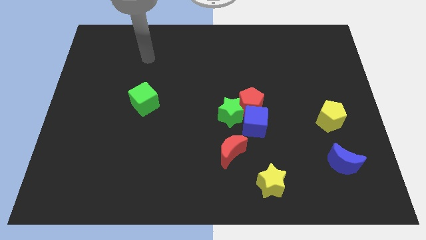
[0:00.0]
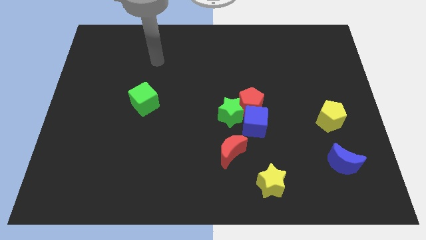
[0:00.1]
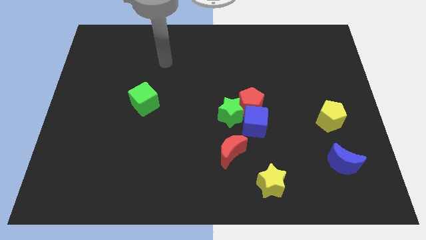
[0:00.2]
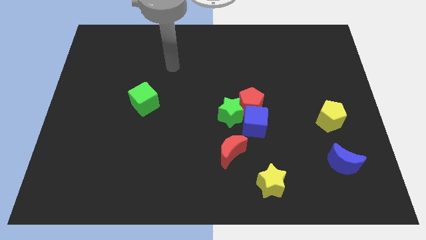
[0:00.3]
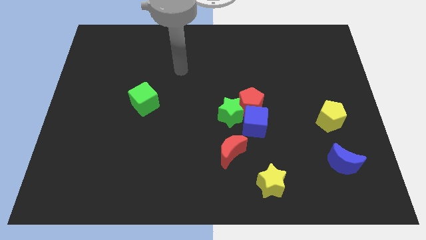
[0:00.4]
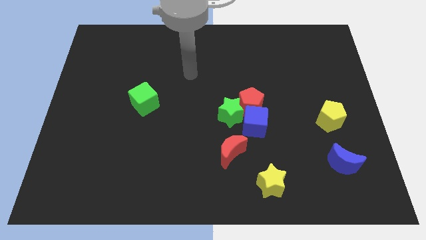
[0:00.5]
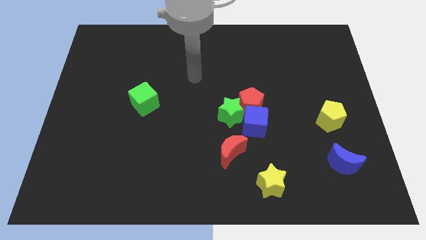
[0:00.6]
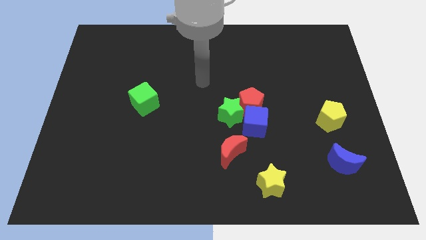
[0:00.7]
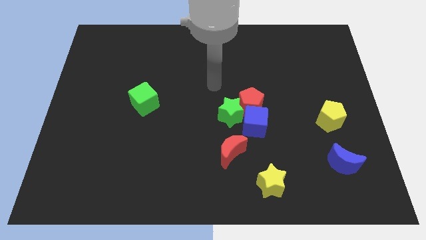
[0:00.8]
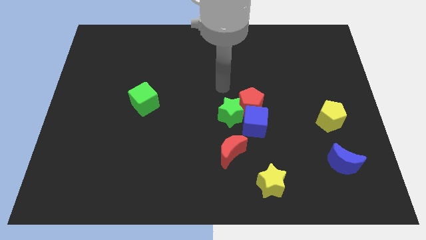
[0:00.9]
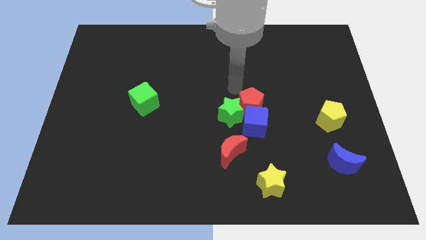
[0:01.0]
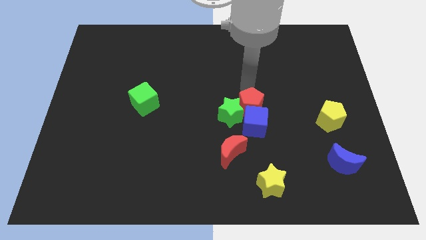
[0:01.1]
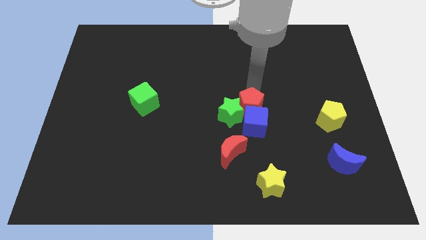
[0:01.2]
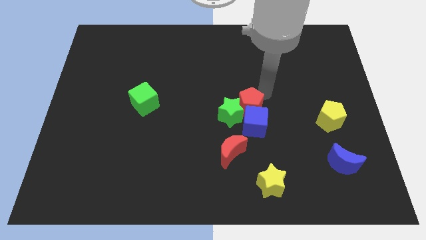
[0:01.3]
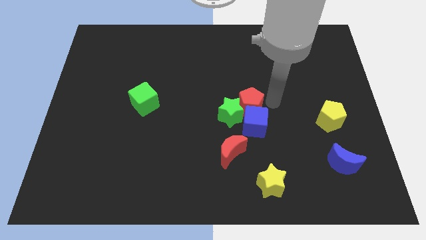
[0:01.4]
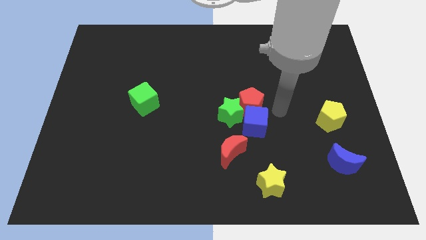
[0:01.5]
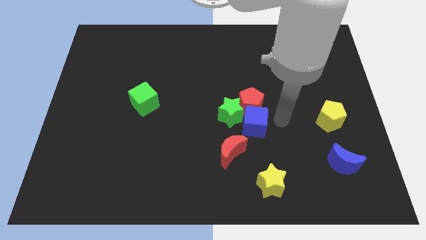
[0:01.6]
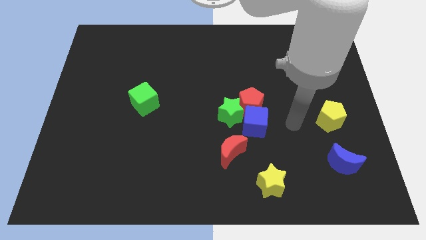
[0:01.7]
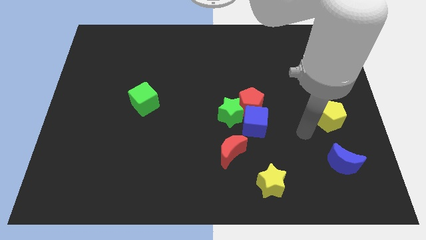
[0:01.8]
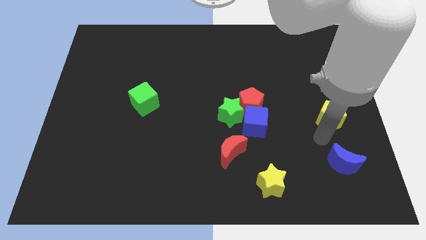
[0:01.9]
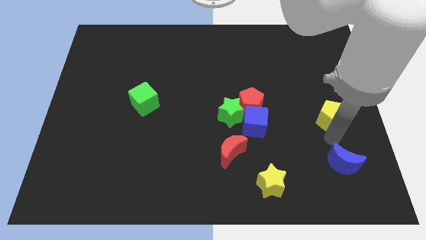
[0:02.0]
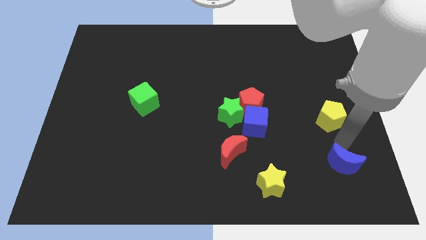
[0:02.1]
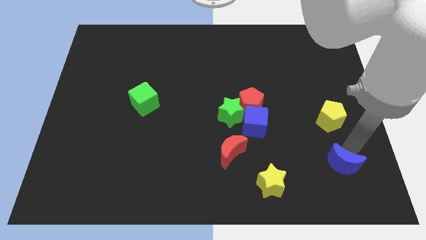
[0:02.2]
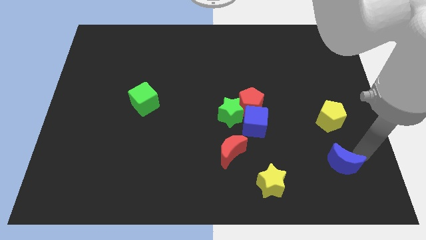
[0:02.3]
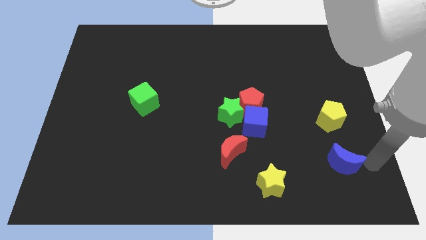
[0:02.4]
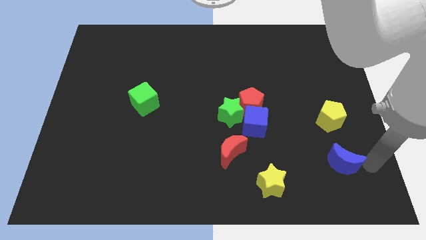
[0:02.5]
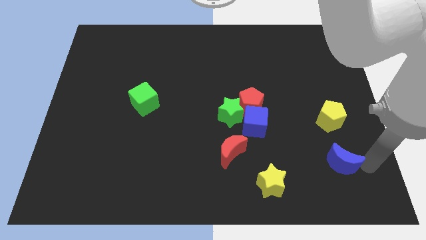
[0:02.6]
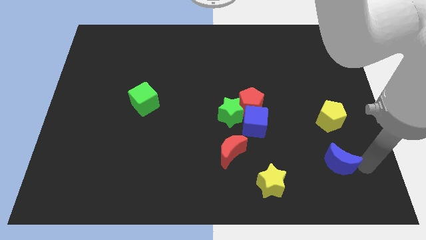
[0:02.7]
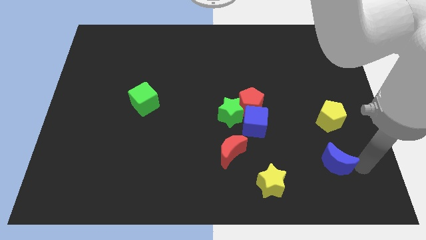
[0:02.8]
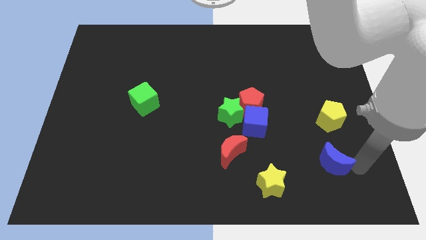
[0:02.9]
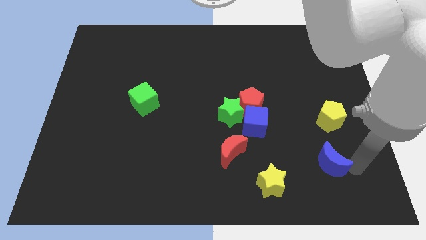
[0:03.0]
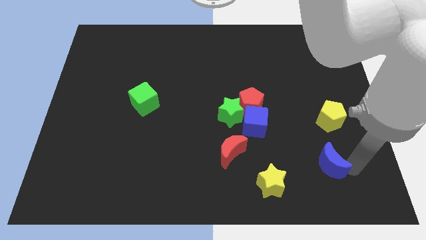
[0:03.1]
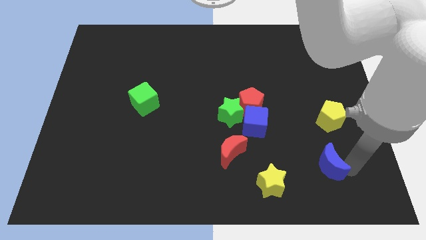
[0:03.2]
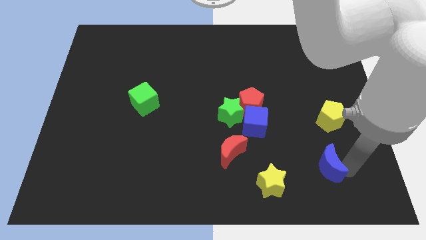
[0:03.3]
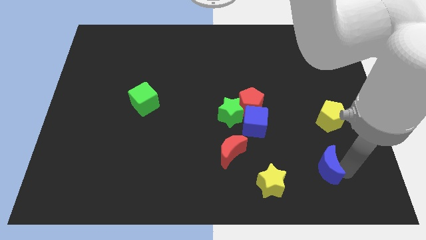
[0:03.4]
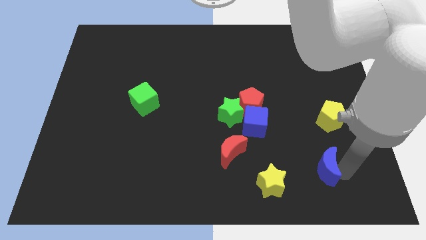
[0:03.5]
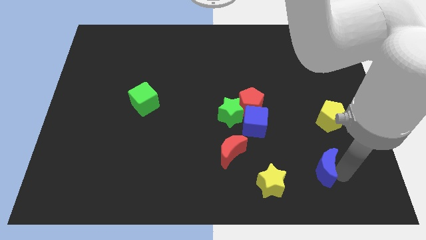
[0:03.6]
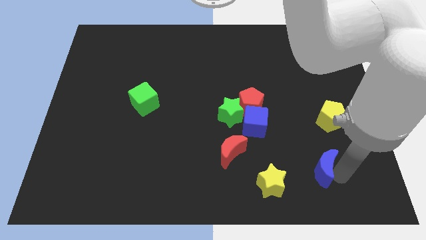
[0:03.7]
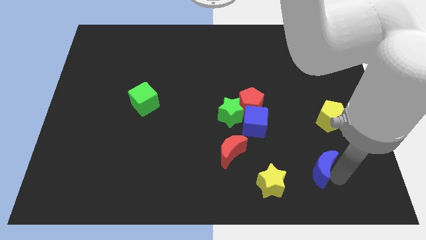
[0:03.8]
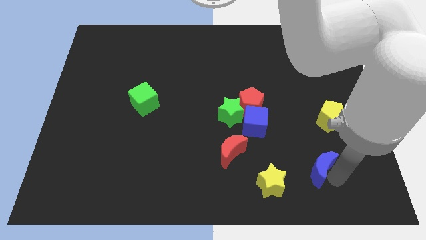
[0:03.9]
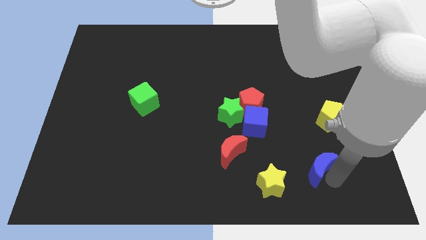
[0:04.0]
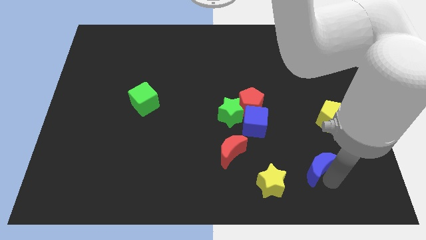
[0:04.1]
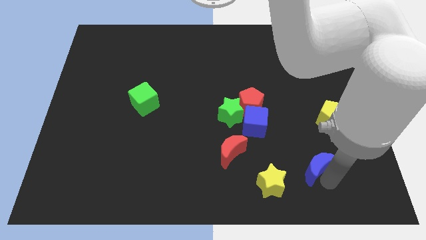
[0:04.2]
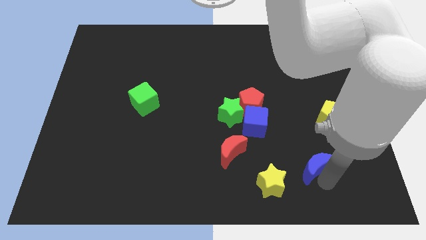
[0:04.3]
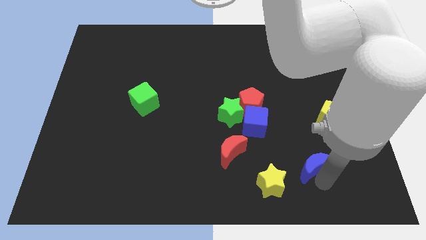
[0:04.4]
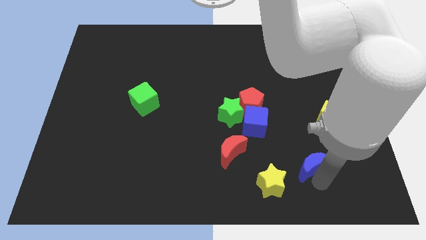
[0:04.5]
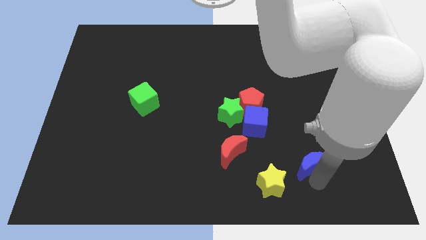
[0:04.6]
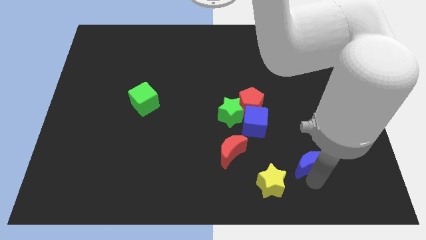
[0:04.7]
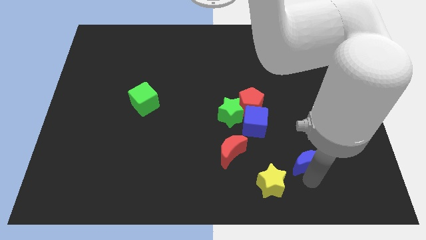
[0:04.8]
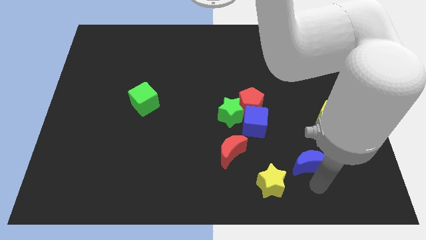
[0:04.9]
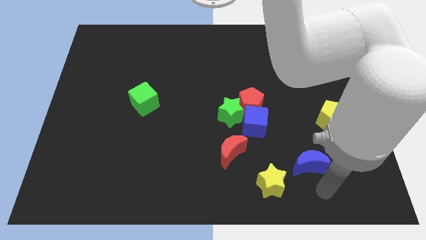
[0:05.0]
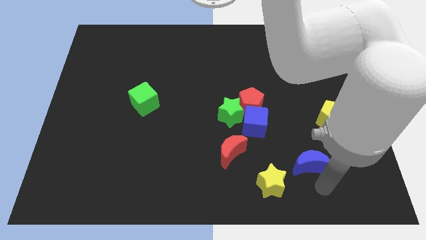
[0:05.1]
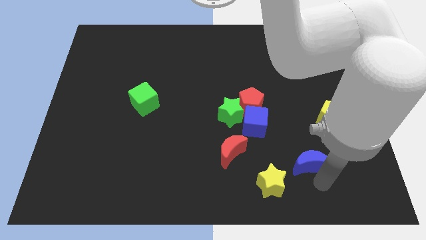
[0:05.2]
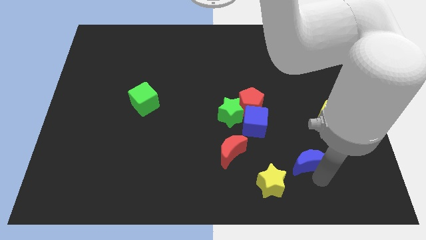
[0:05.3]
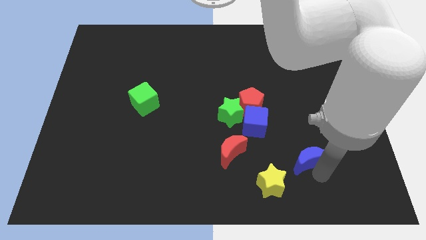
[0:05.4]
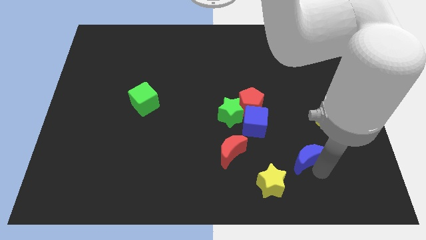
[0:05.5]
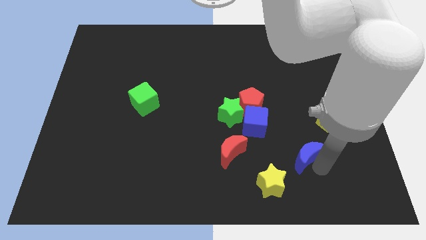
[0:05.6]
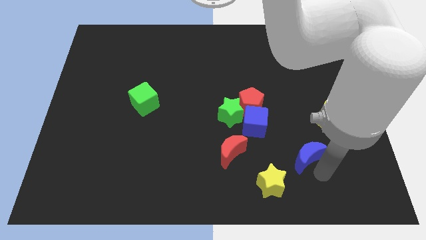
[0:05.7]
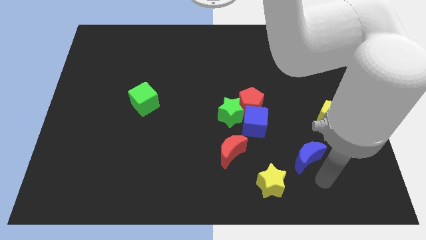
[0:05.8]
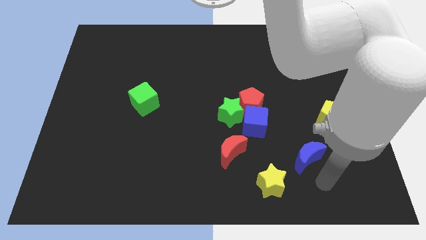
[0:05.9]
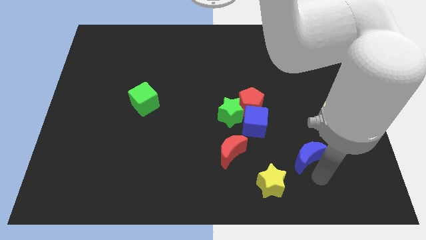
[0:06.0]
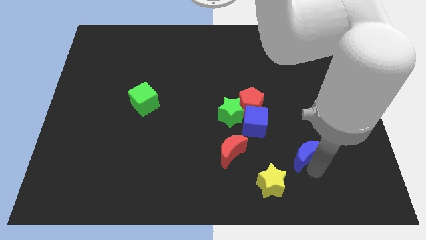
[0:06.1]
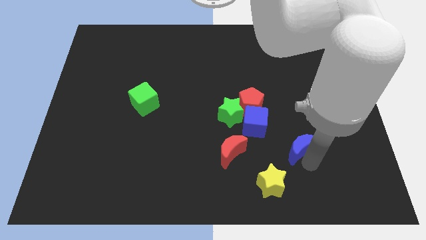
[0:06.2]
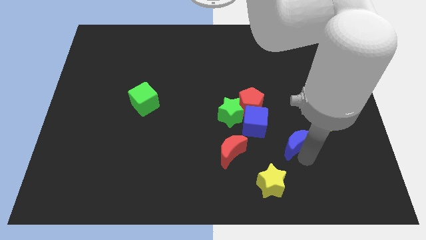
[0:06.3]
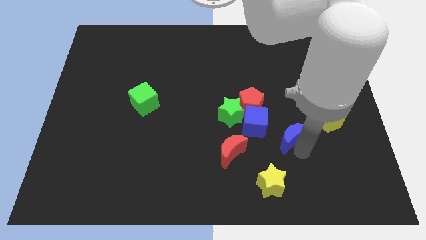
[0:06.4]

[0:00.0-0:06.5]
put the blue moon to the bottom right side of the red pentagon

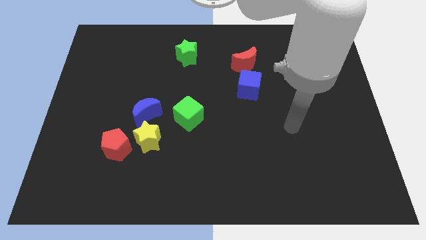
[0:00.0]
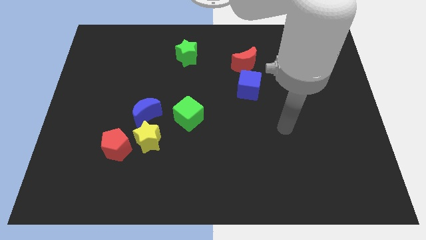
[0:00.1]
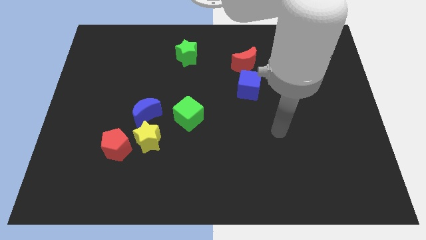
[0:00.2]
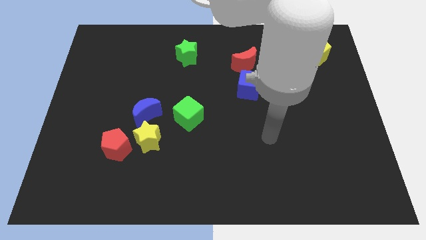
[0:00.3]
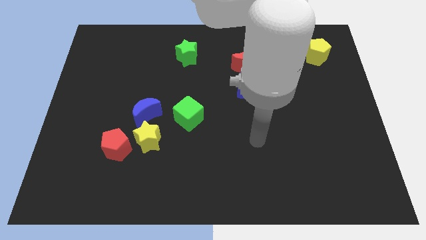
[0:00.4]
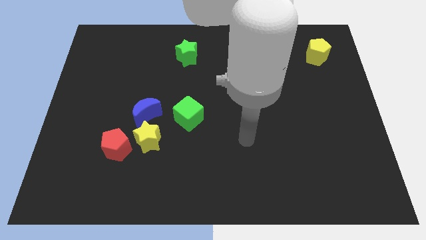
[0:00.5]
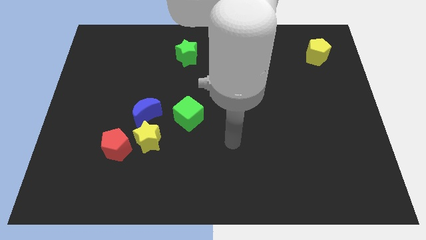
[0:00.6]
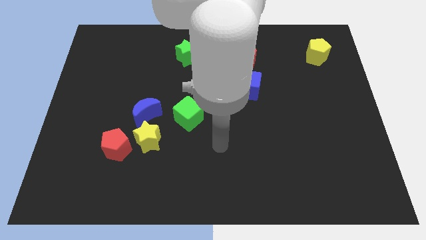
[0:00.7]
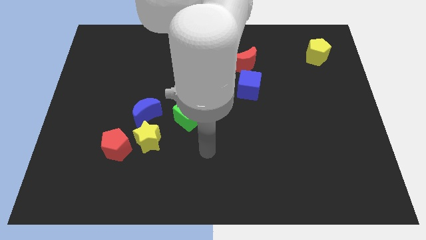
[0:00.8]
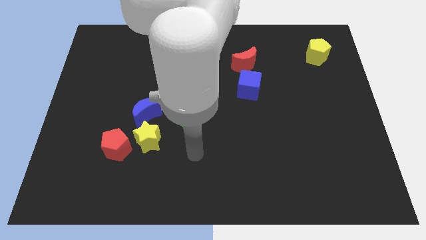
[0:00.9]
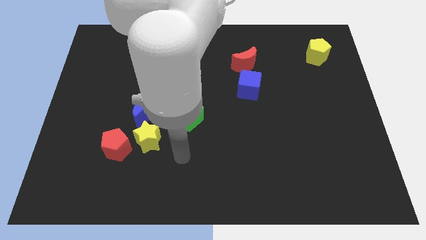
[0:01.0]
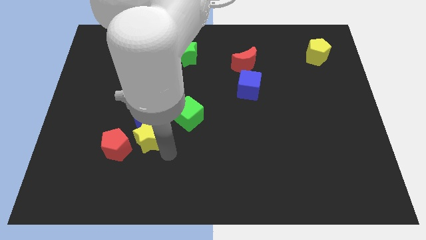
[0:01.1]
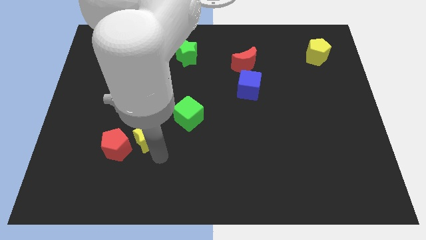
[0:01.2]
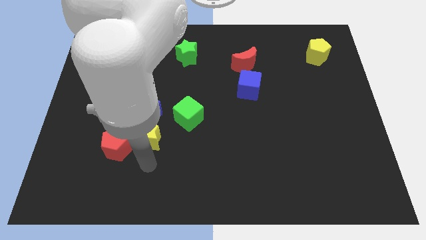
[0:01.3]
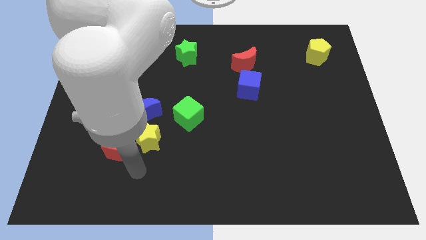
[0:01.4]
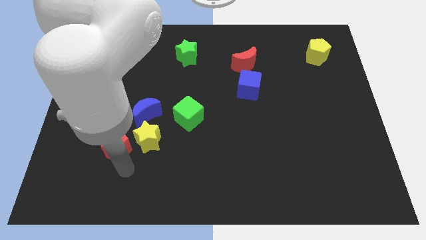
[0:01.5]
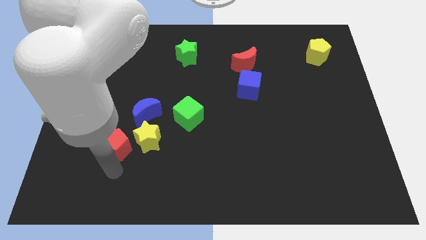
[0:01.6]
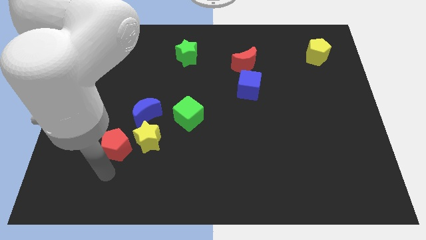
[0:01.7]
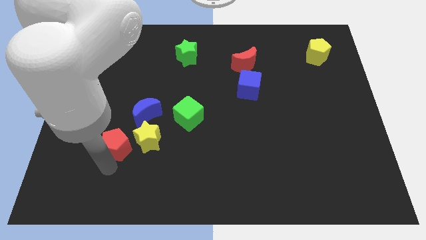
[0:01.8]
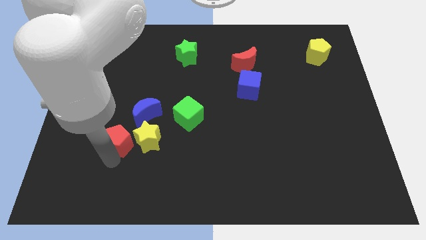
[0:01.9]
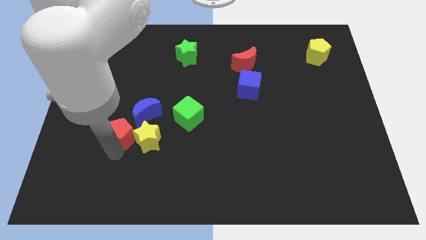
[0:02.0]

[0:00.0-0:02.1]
slide the red pentagon to the top left of the yellow star
